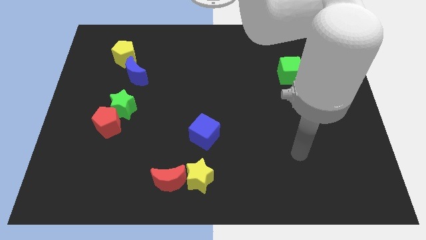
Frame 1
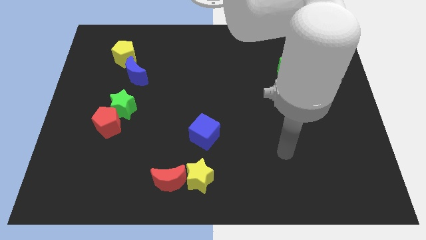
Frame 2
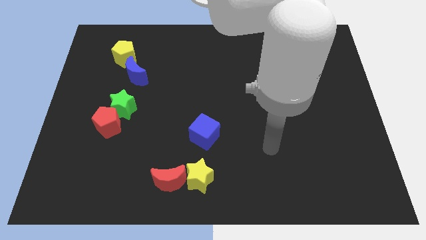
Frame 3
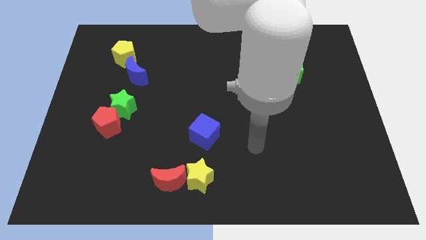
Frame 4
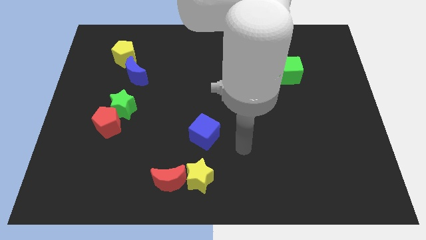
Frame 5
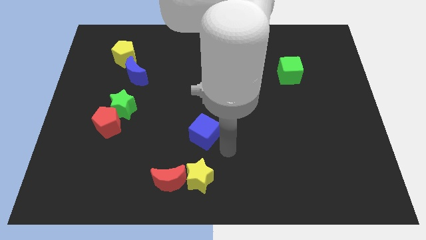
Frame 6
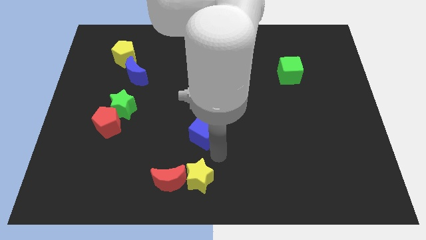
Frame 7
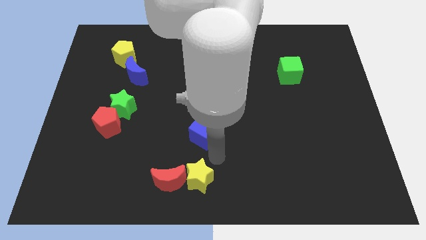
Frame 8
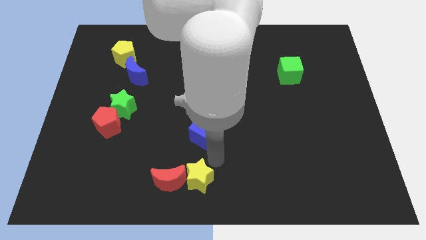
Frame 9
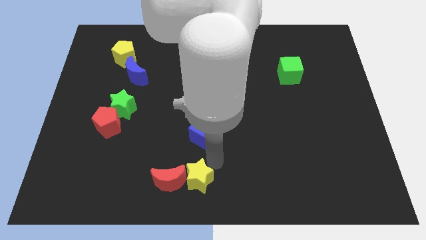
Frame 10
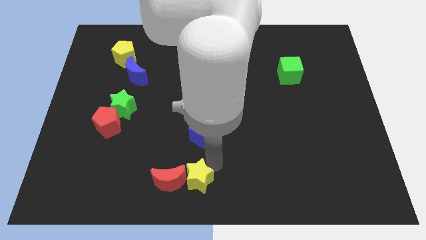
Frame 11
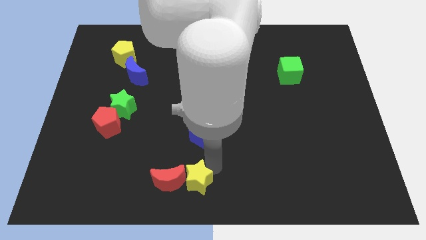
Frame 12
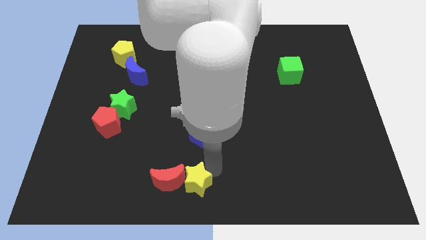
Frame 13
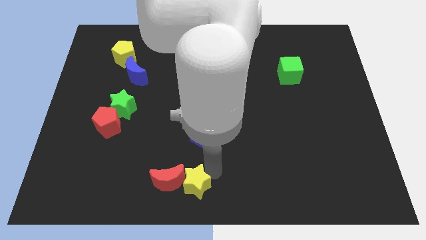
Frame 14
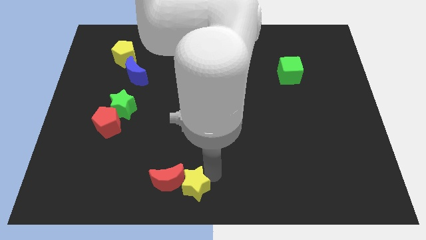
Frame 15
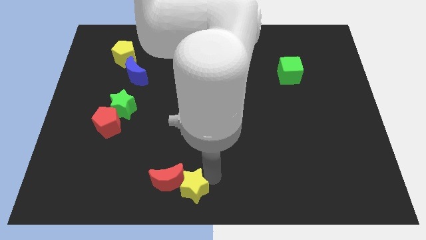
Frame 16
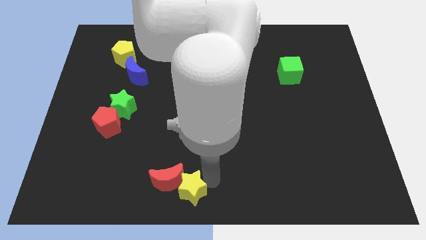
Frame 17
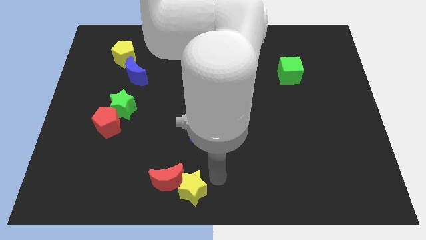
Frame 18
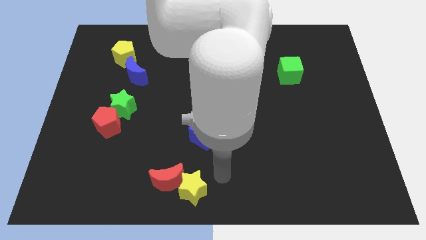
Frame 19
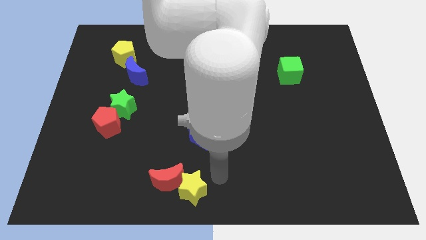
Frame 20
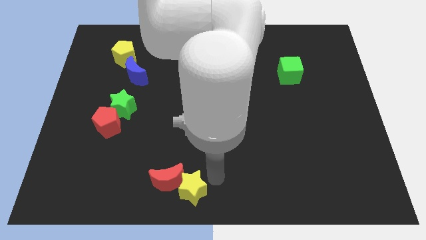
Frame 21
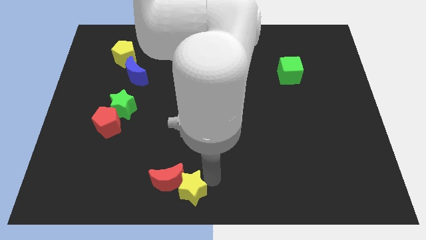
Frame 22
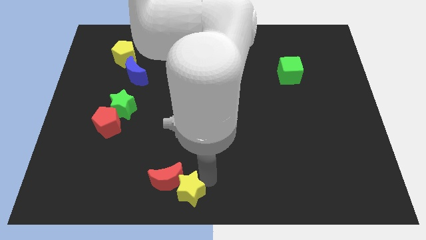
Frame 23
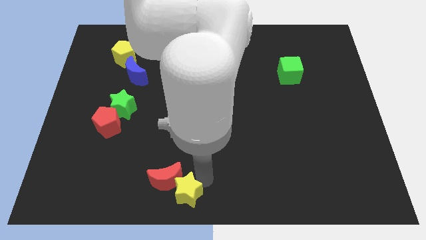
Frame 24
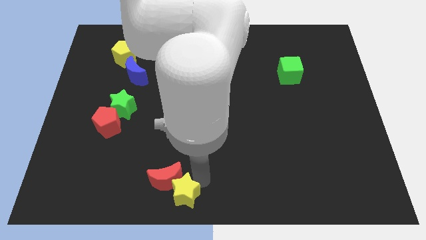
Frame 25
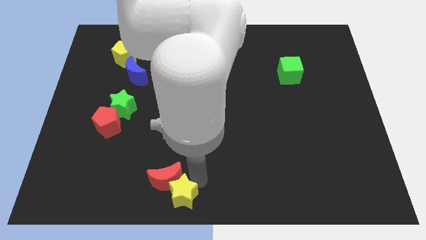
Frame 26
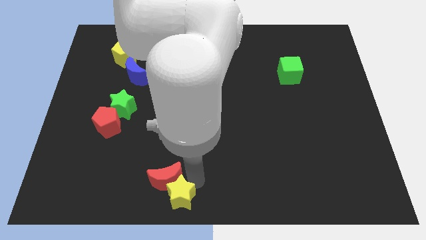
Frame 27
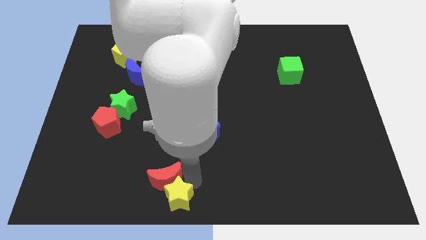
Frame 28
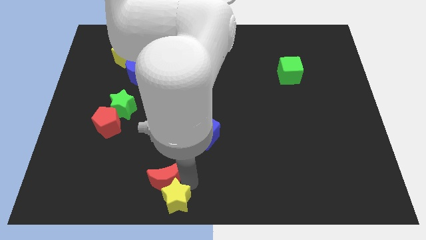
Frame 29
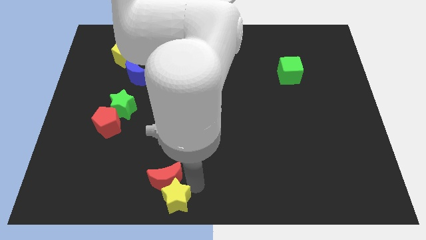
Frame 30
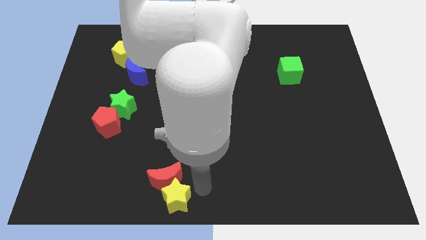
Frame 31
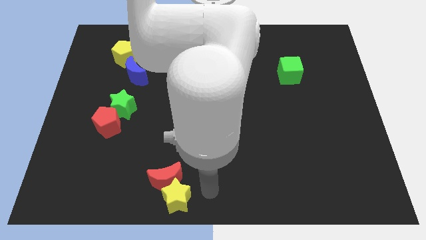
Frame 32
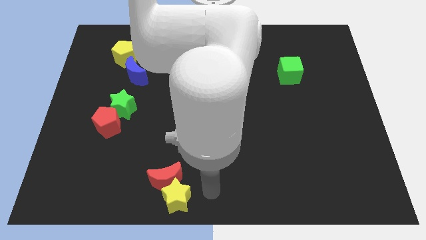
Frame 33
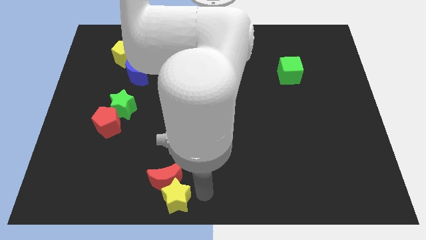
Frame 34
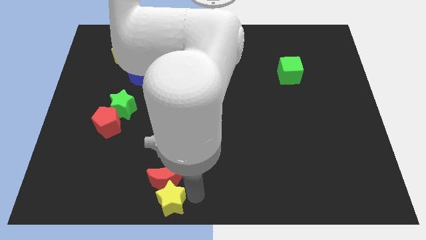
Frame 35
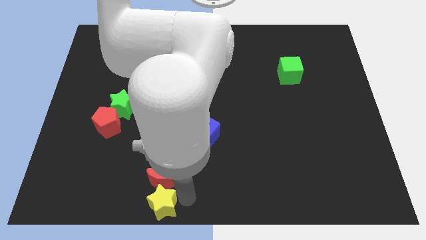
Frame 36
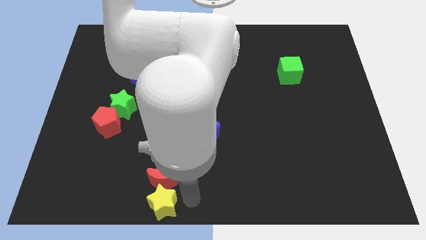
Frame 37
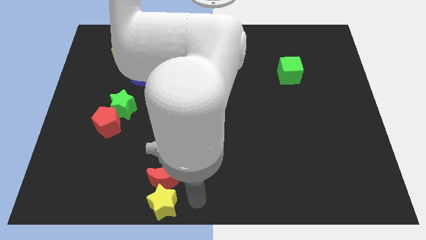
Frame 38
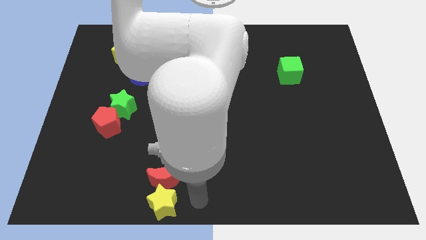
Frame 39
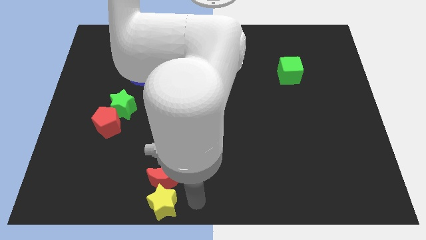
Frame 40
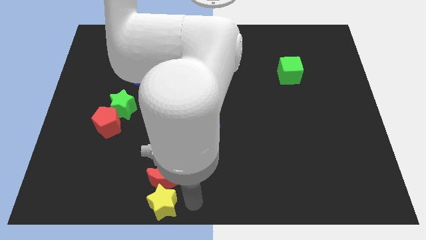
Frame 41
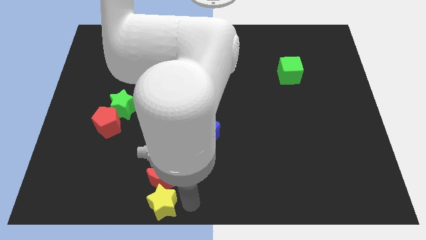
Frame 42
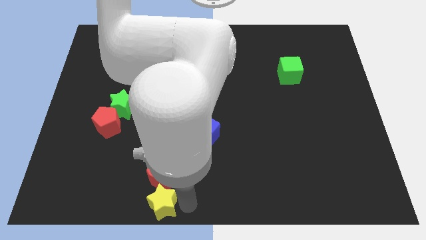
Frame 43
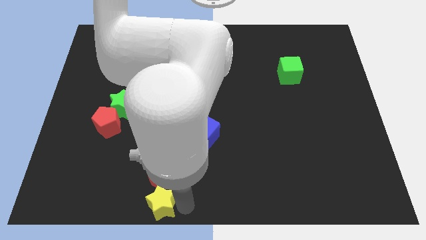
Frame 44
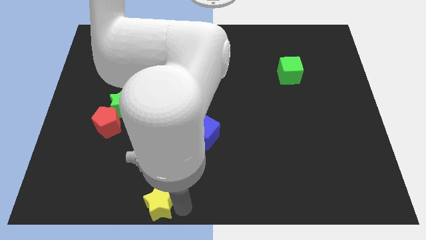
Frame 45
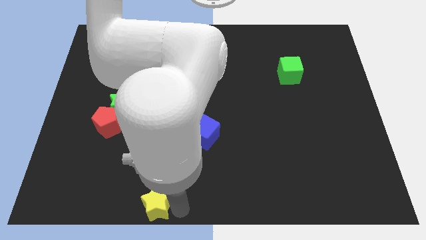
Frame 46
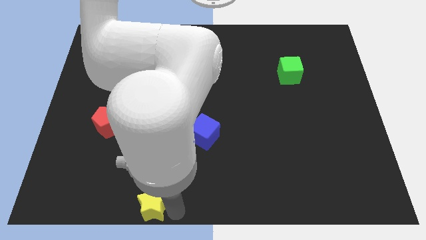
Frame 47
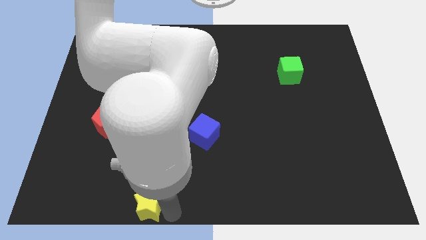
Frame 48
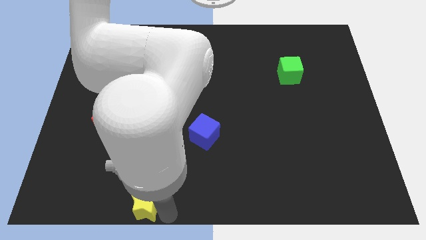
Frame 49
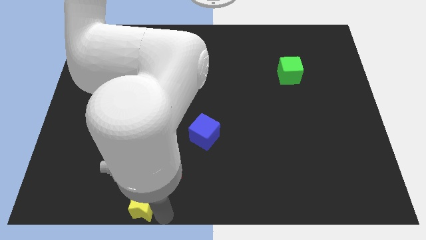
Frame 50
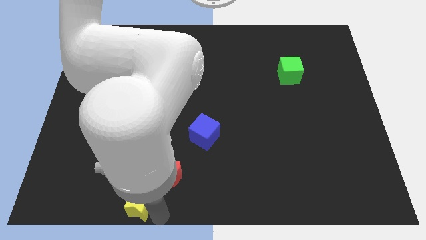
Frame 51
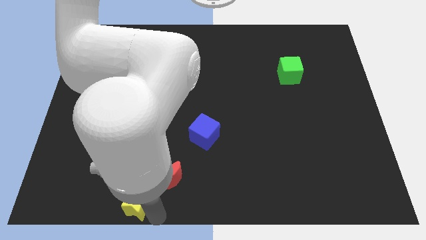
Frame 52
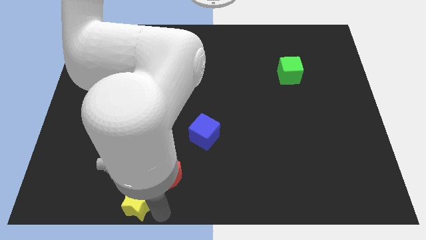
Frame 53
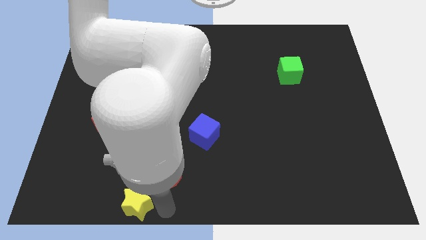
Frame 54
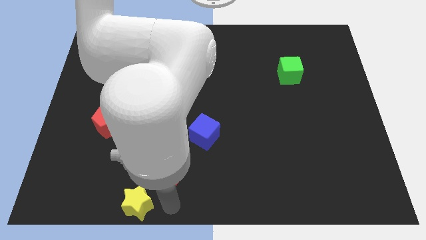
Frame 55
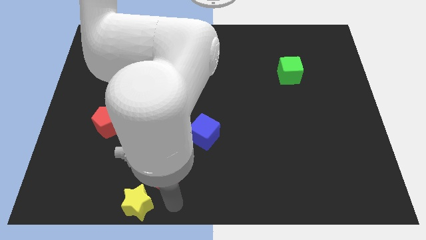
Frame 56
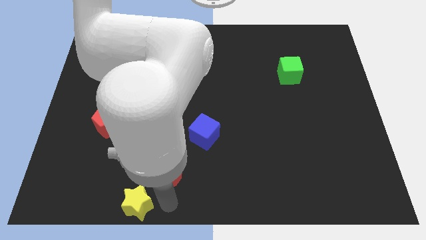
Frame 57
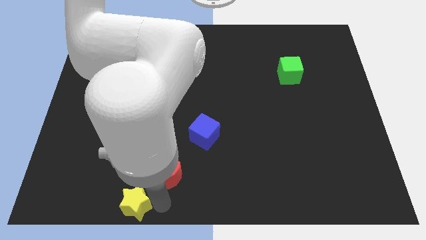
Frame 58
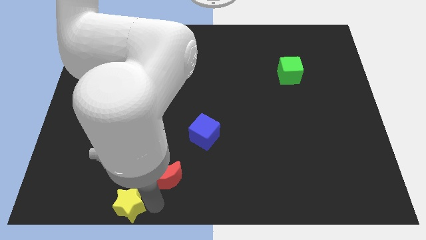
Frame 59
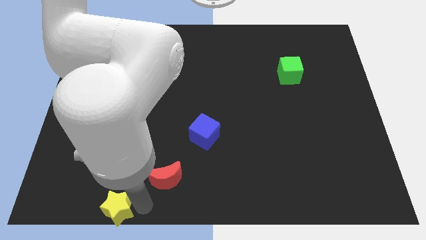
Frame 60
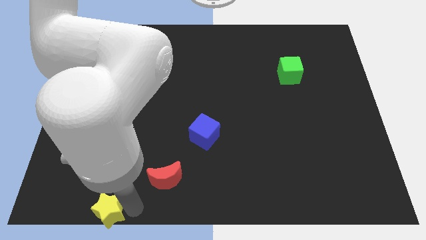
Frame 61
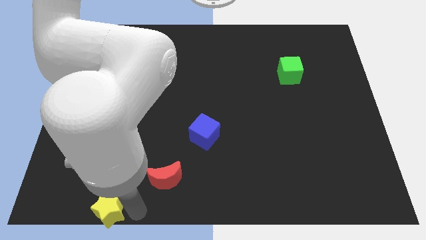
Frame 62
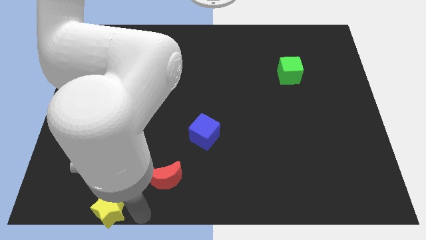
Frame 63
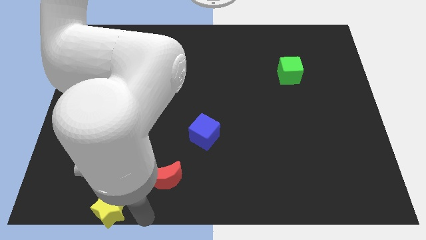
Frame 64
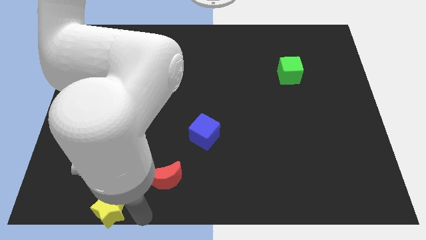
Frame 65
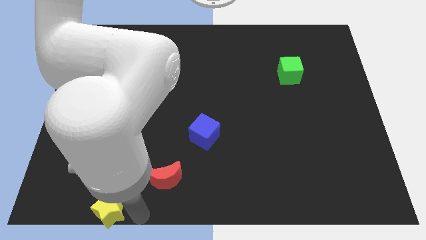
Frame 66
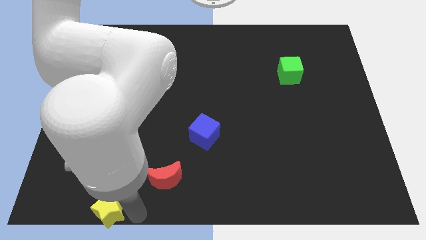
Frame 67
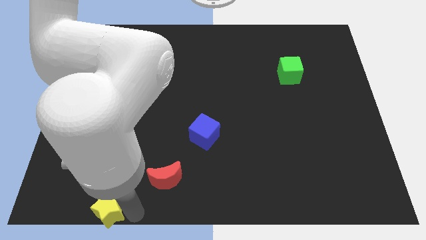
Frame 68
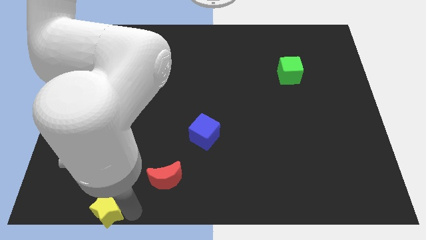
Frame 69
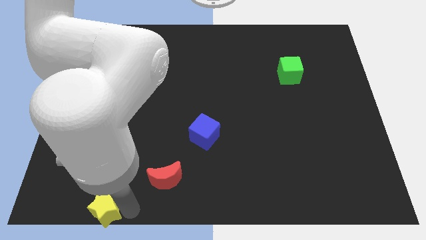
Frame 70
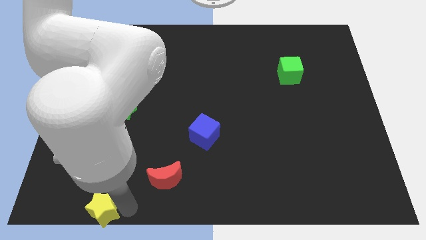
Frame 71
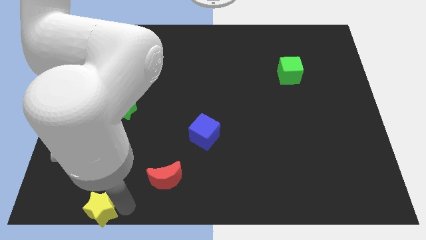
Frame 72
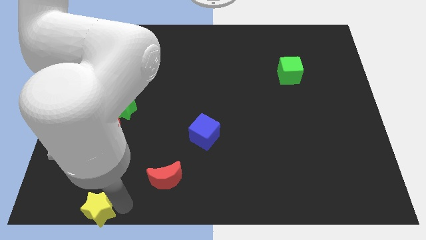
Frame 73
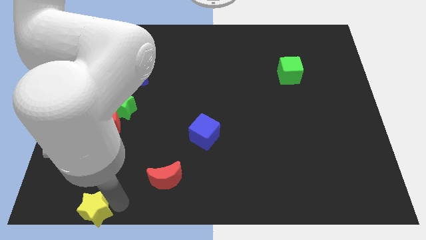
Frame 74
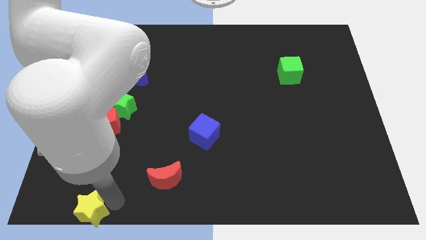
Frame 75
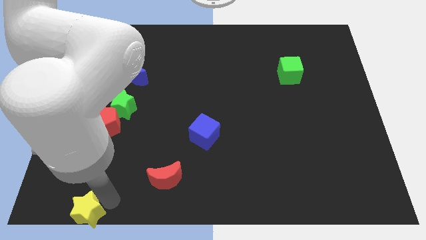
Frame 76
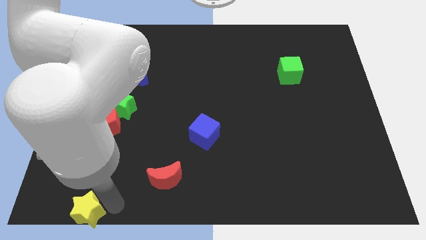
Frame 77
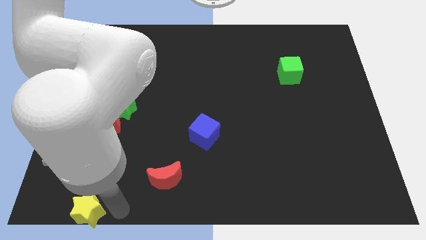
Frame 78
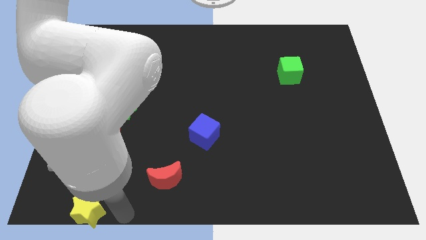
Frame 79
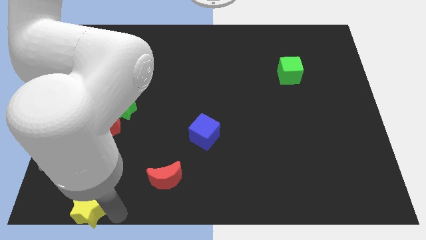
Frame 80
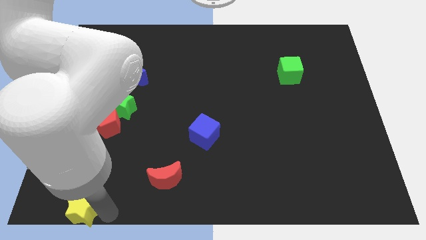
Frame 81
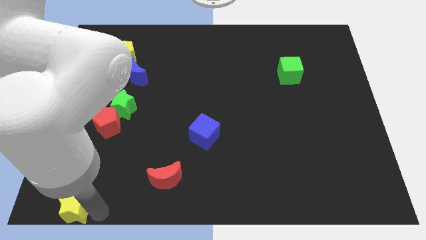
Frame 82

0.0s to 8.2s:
move the yellow star to the bottom left of the board
